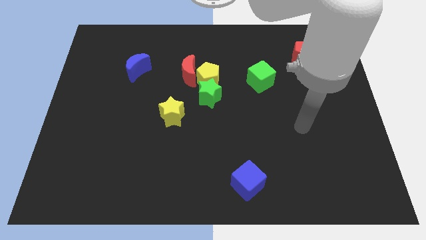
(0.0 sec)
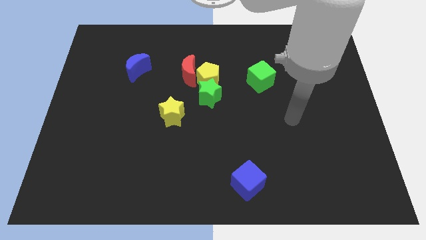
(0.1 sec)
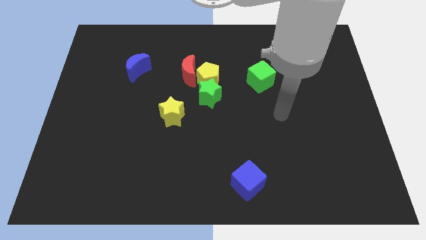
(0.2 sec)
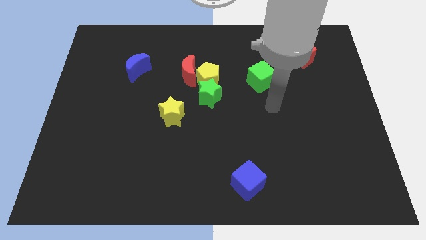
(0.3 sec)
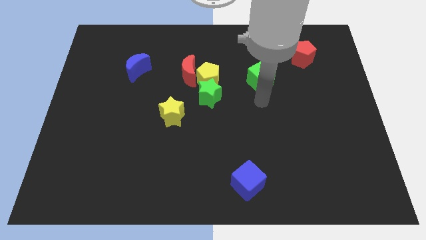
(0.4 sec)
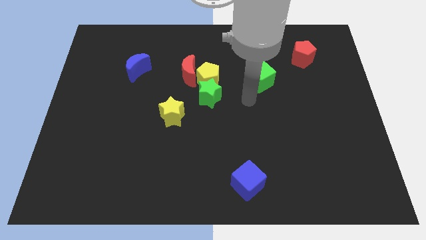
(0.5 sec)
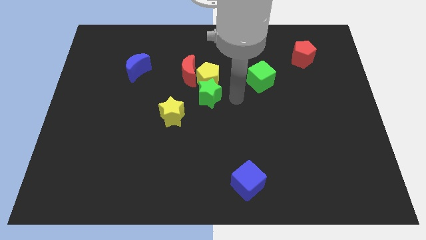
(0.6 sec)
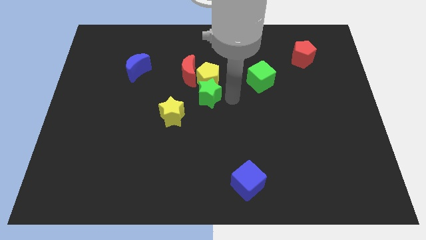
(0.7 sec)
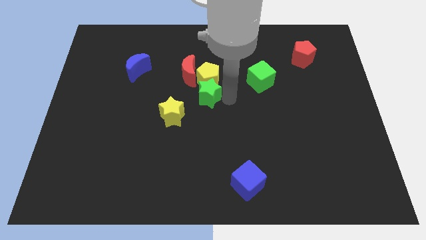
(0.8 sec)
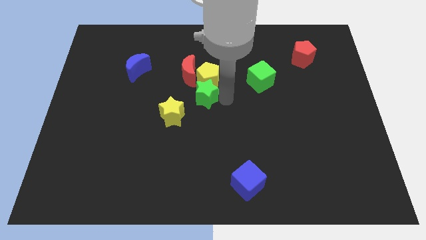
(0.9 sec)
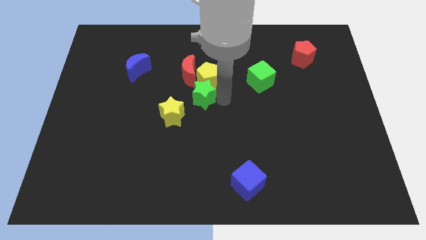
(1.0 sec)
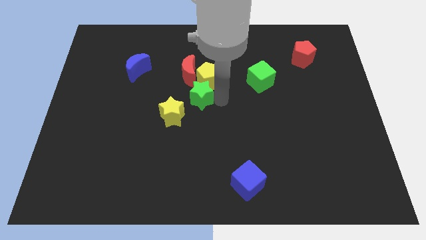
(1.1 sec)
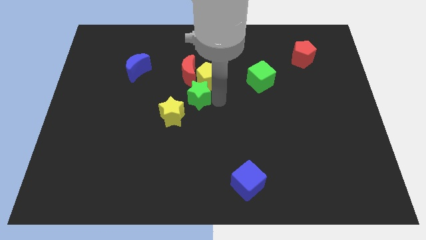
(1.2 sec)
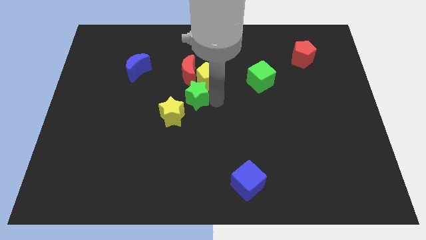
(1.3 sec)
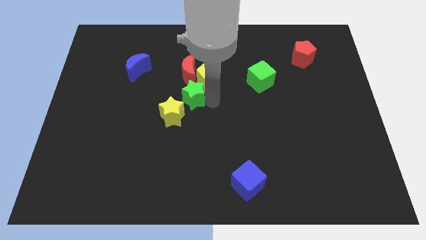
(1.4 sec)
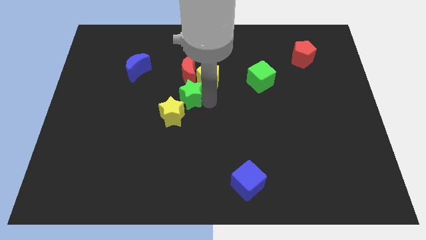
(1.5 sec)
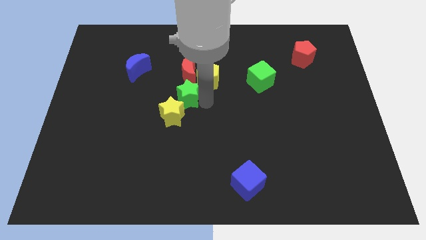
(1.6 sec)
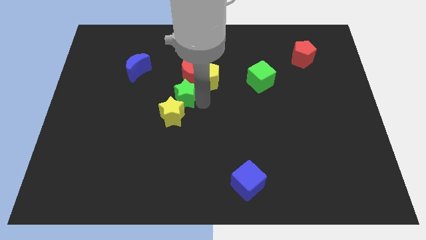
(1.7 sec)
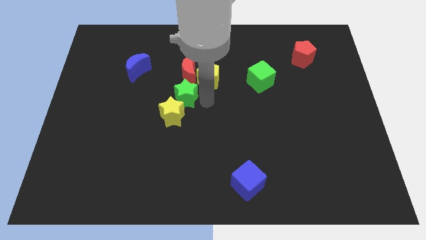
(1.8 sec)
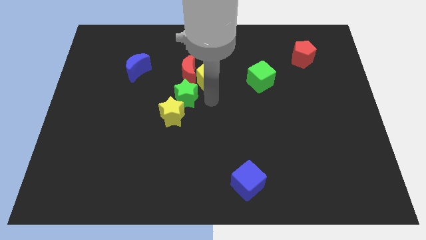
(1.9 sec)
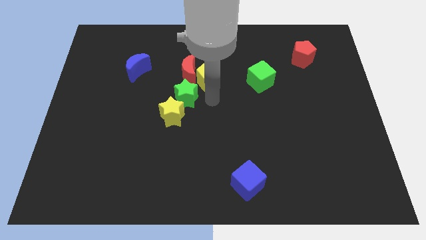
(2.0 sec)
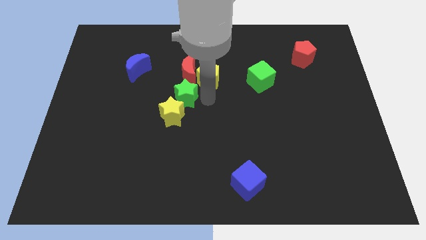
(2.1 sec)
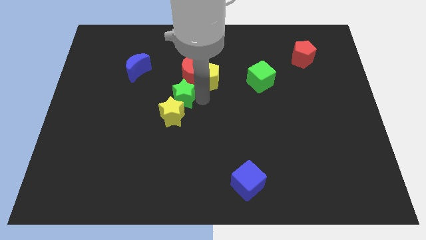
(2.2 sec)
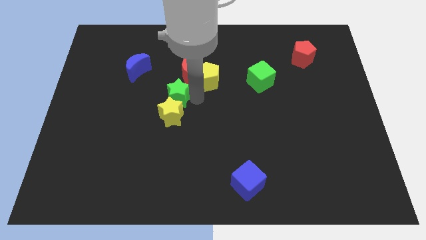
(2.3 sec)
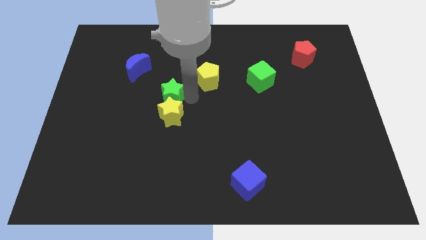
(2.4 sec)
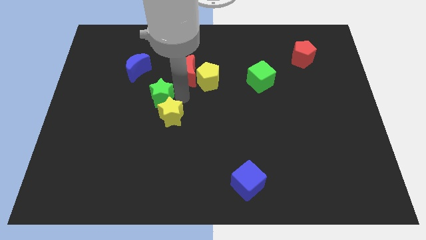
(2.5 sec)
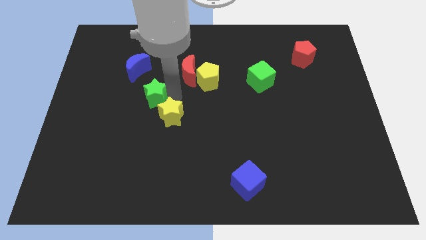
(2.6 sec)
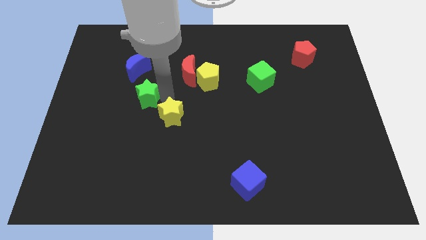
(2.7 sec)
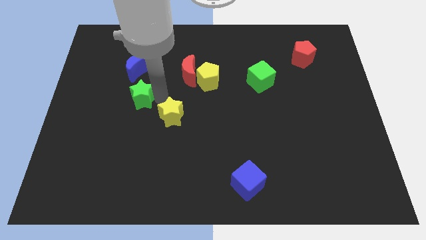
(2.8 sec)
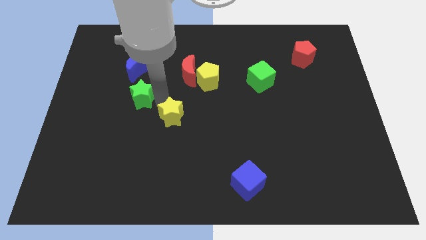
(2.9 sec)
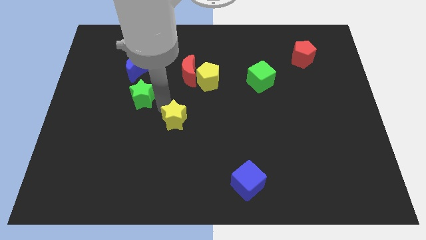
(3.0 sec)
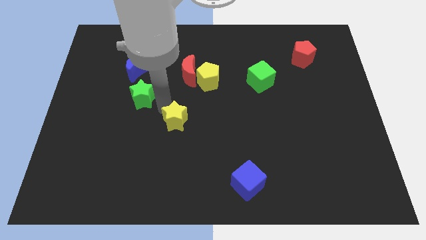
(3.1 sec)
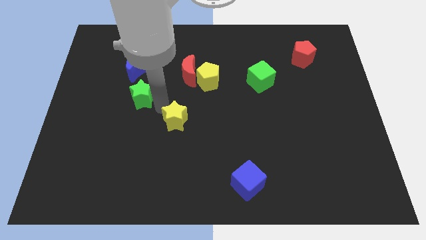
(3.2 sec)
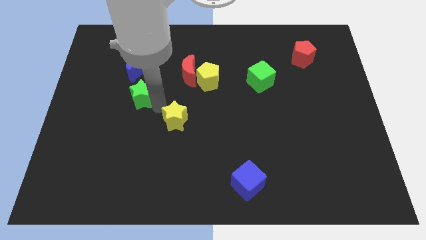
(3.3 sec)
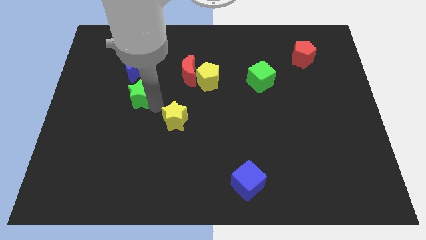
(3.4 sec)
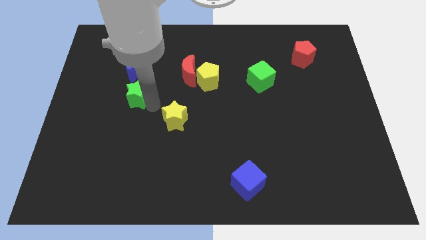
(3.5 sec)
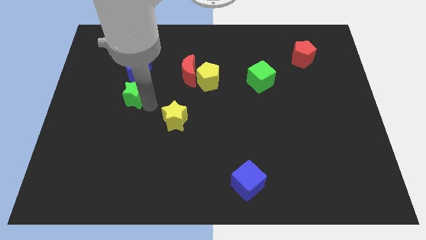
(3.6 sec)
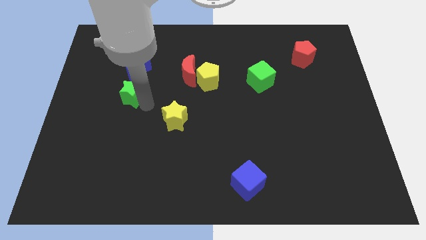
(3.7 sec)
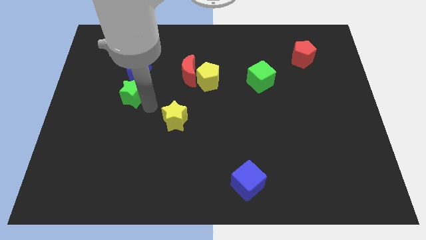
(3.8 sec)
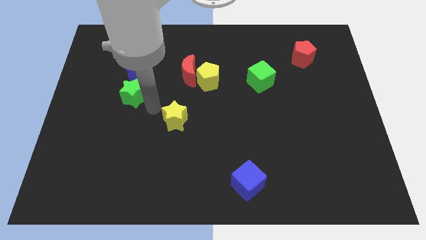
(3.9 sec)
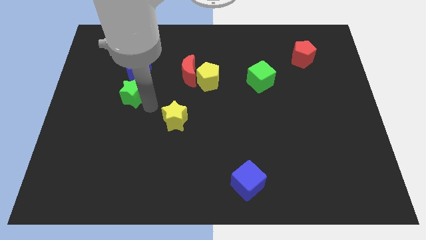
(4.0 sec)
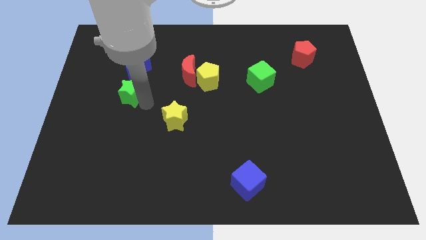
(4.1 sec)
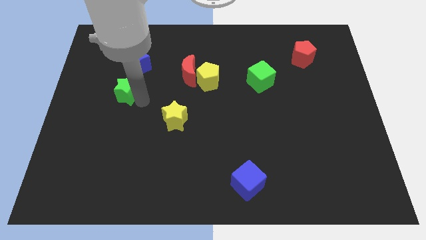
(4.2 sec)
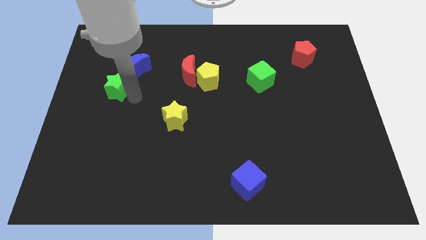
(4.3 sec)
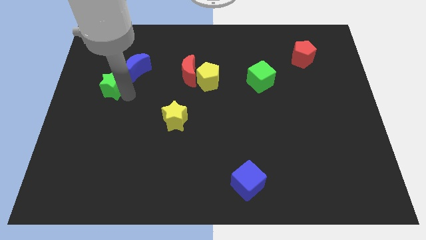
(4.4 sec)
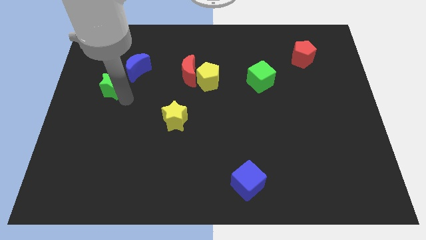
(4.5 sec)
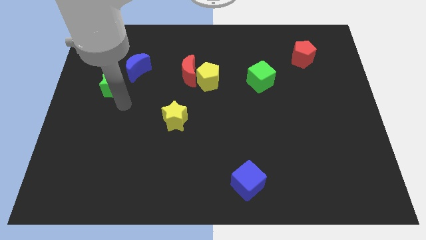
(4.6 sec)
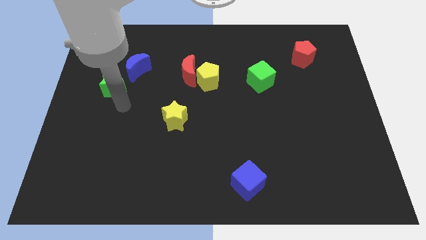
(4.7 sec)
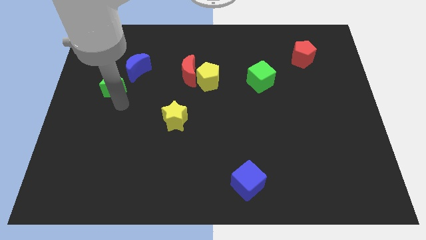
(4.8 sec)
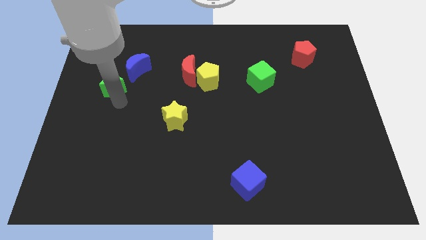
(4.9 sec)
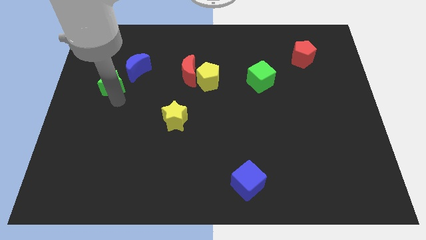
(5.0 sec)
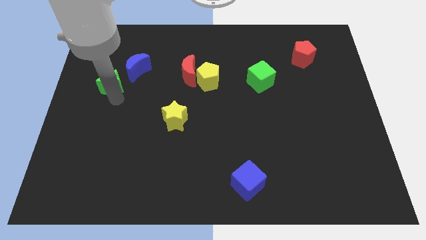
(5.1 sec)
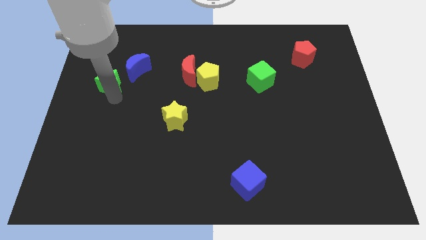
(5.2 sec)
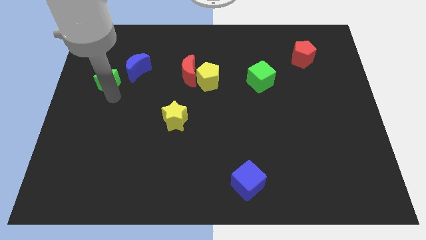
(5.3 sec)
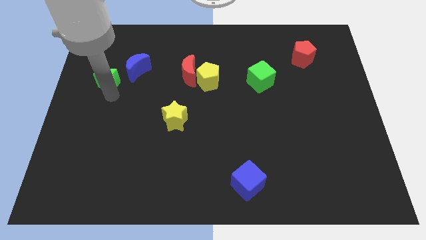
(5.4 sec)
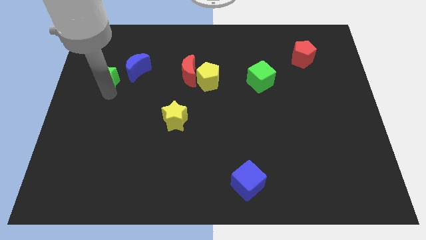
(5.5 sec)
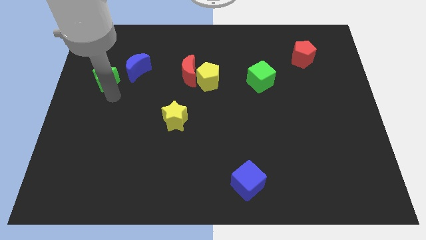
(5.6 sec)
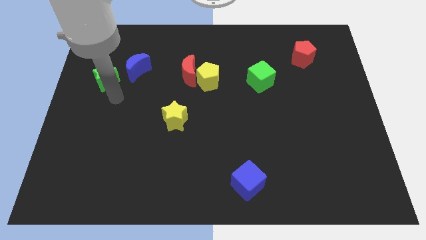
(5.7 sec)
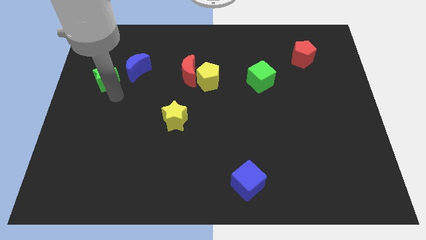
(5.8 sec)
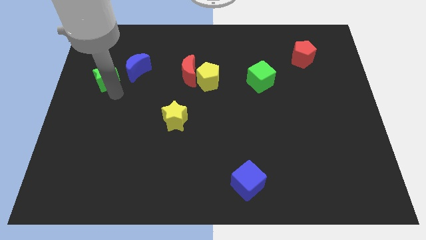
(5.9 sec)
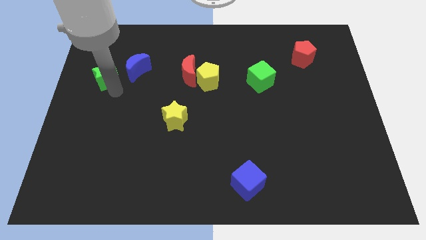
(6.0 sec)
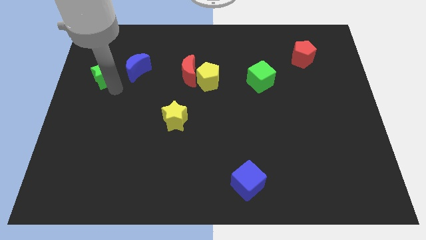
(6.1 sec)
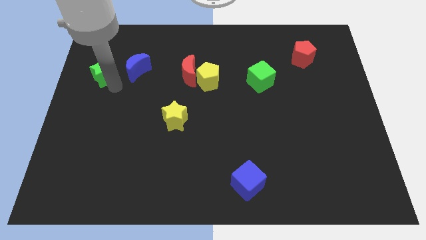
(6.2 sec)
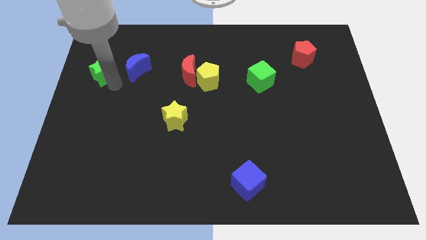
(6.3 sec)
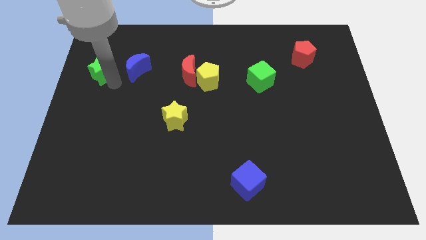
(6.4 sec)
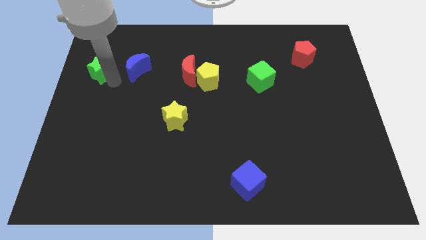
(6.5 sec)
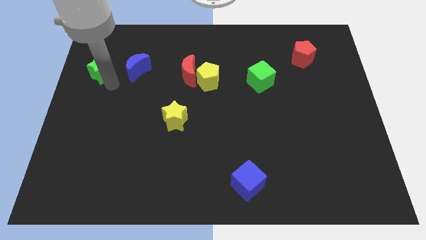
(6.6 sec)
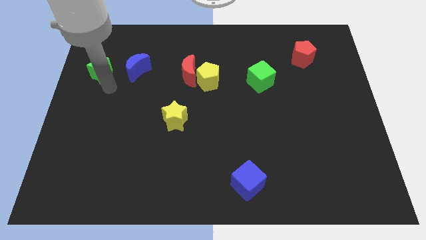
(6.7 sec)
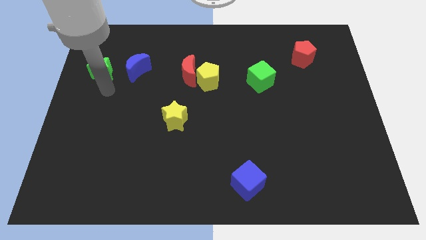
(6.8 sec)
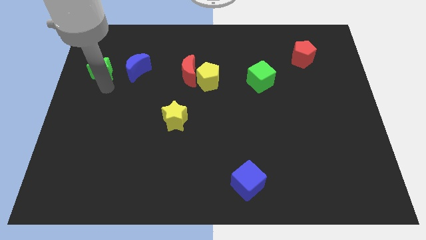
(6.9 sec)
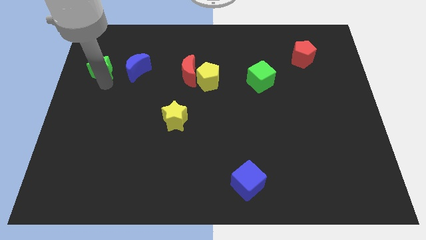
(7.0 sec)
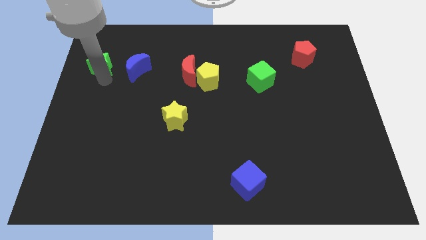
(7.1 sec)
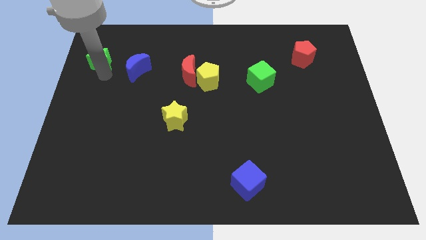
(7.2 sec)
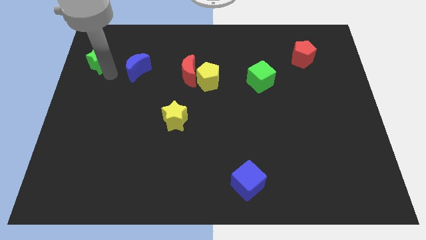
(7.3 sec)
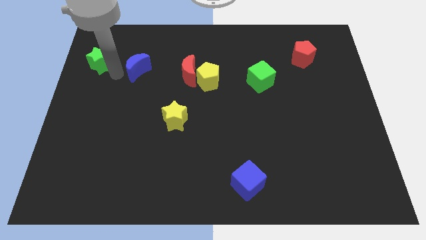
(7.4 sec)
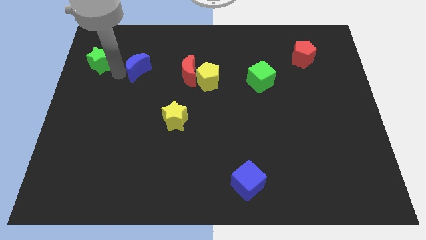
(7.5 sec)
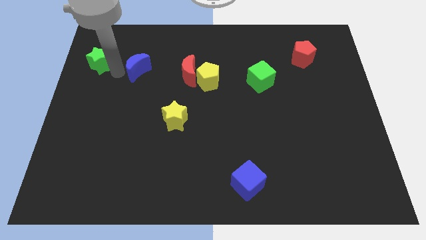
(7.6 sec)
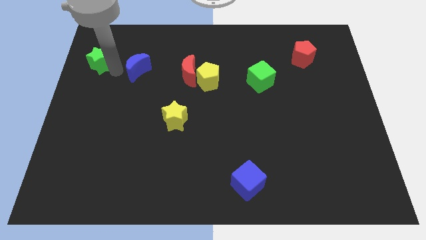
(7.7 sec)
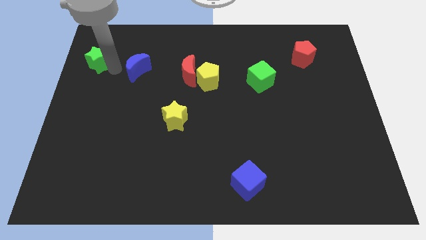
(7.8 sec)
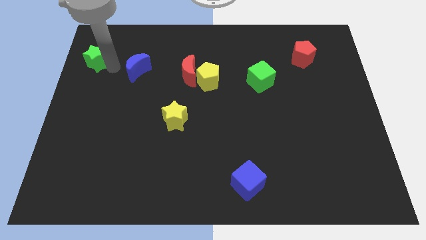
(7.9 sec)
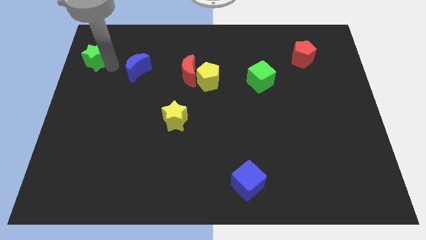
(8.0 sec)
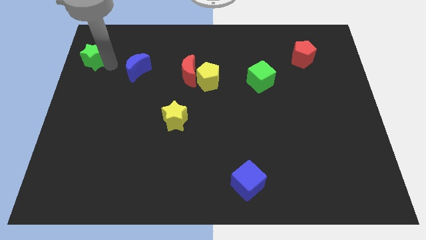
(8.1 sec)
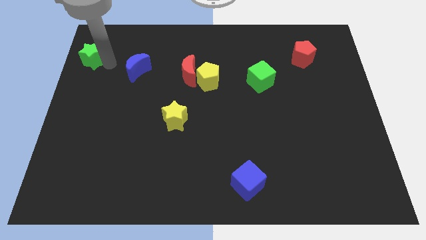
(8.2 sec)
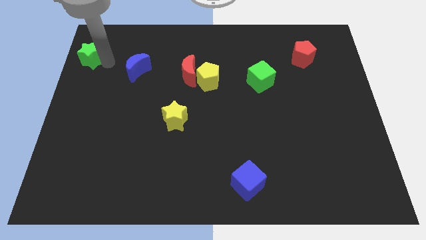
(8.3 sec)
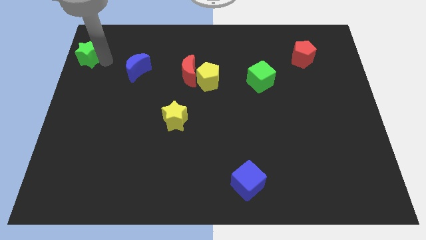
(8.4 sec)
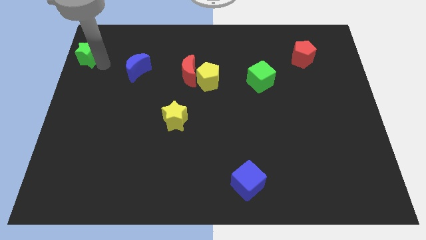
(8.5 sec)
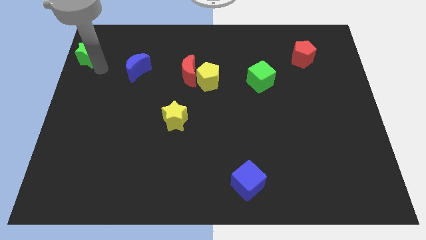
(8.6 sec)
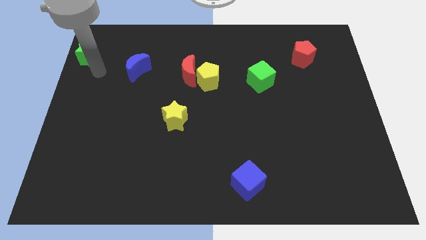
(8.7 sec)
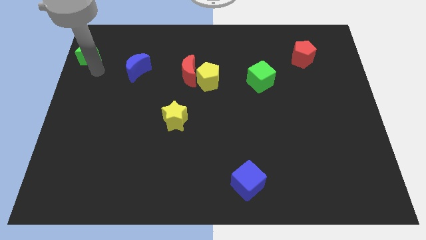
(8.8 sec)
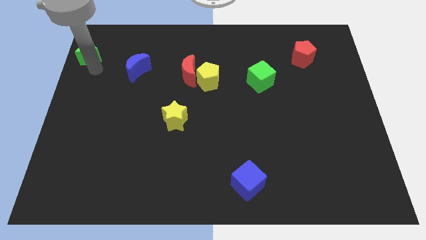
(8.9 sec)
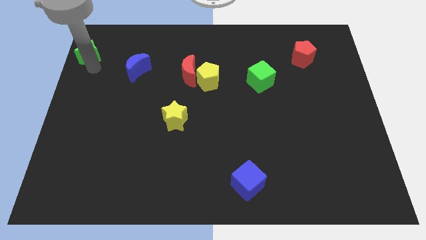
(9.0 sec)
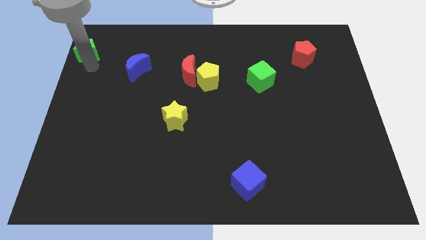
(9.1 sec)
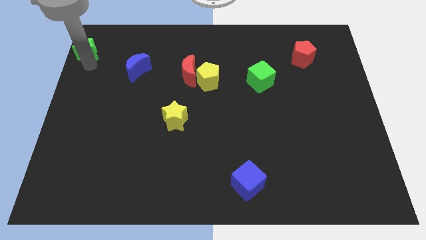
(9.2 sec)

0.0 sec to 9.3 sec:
slide the green star to the top left corner
